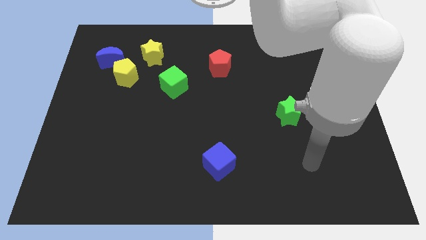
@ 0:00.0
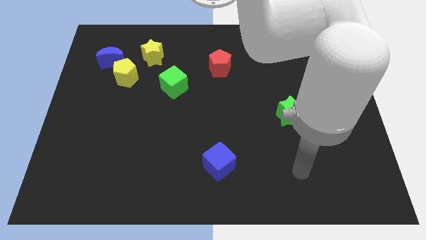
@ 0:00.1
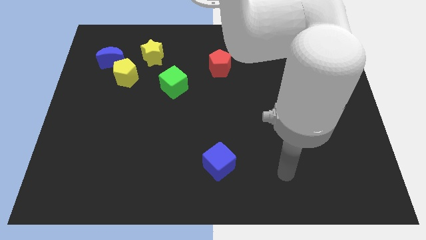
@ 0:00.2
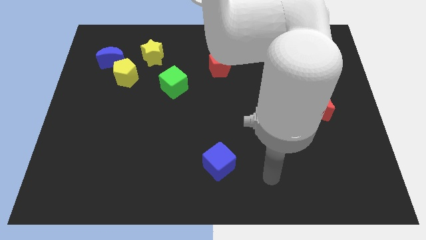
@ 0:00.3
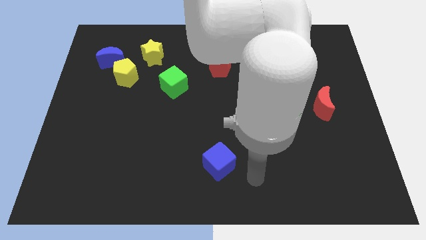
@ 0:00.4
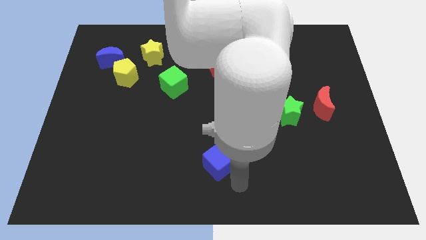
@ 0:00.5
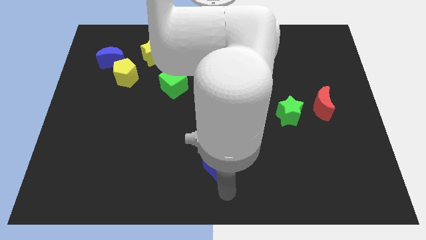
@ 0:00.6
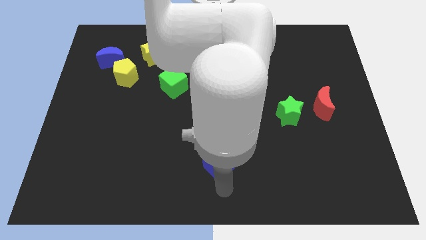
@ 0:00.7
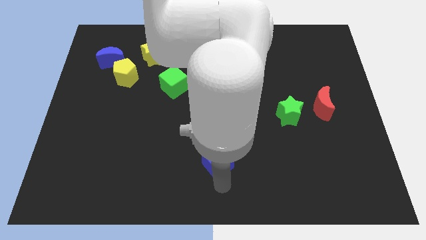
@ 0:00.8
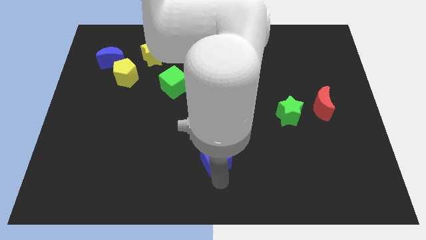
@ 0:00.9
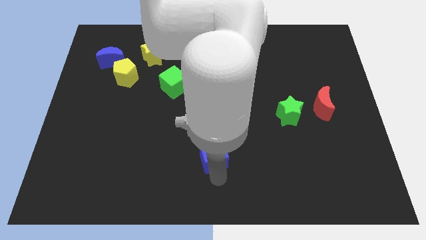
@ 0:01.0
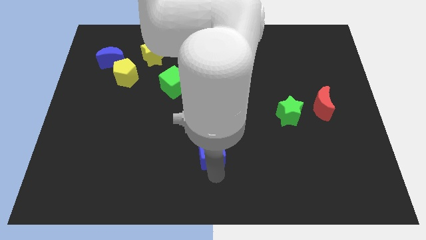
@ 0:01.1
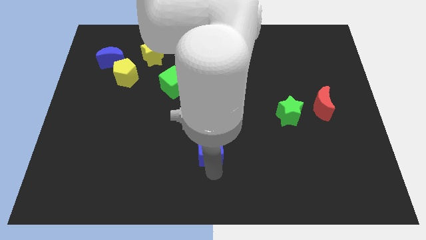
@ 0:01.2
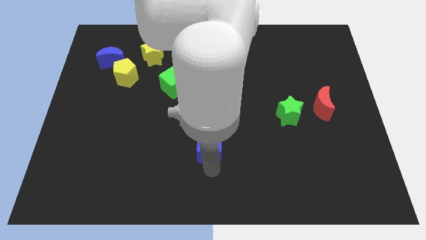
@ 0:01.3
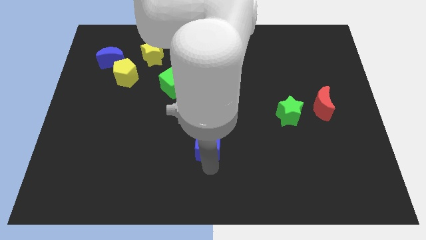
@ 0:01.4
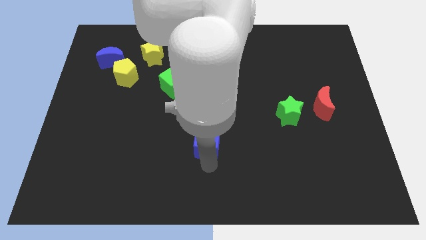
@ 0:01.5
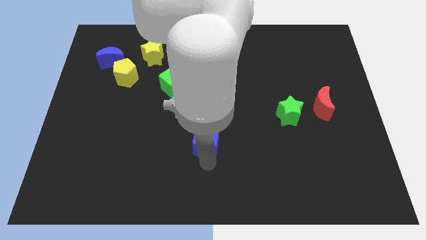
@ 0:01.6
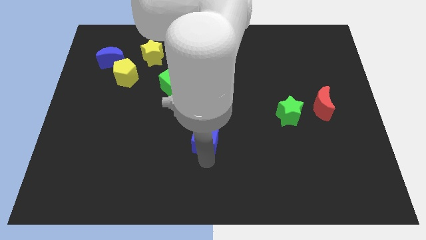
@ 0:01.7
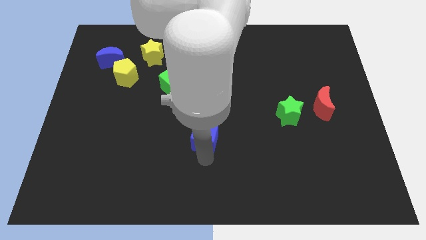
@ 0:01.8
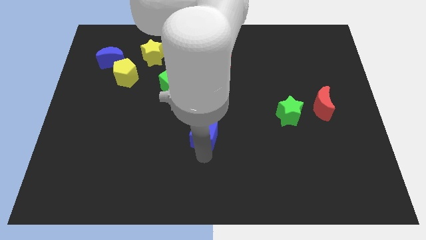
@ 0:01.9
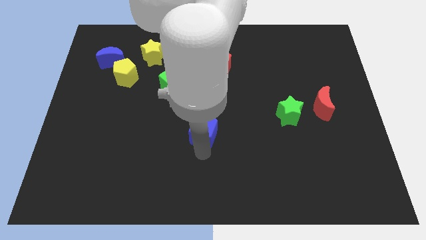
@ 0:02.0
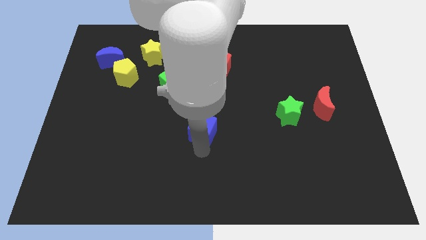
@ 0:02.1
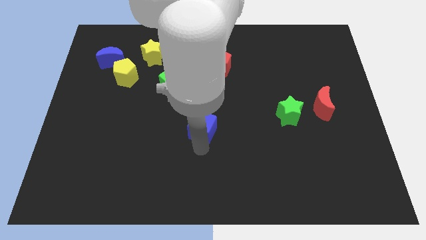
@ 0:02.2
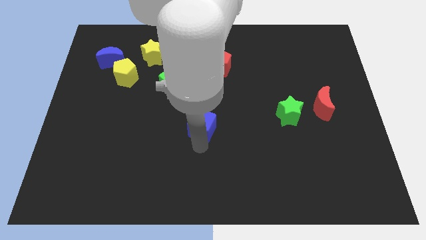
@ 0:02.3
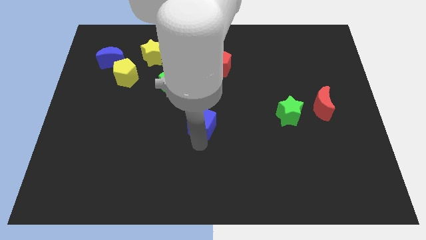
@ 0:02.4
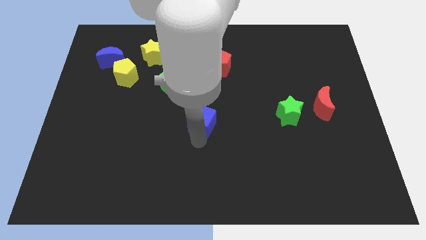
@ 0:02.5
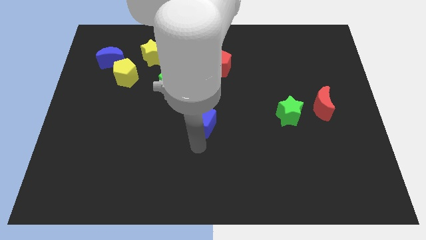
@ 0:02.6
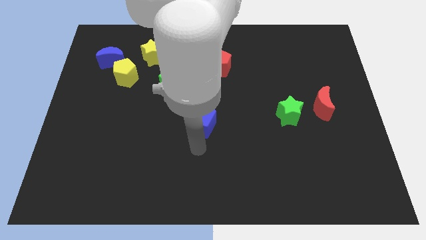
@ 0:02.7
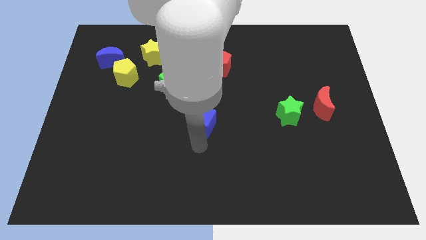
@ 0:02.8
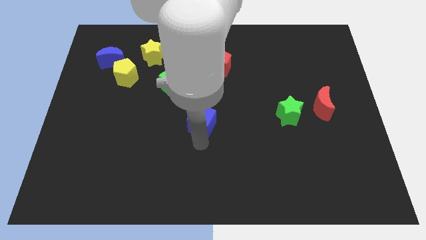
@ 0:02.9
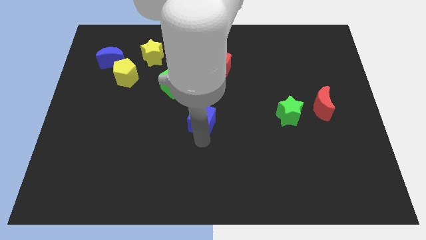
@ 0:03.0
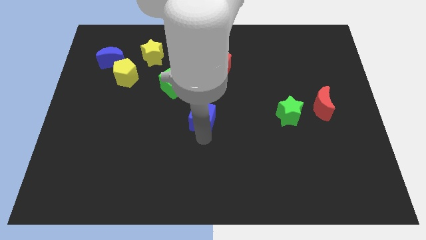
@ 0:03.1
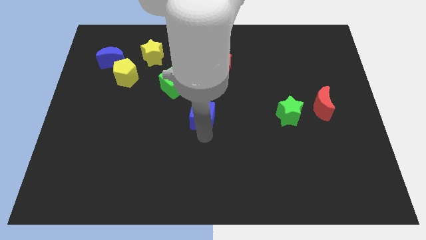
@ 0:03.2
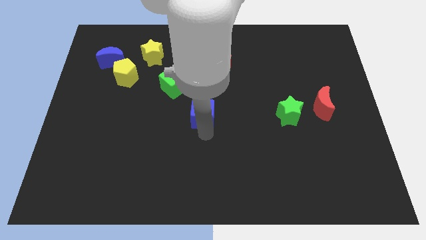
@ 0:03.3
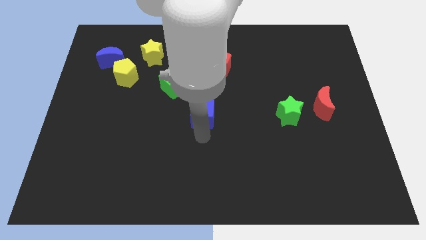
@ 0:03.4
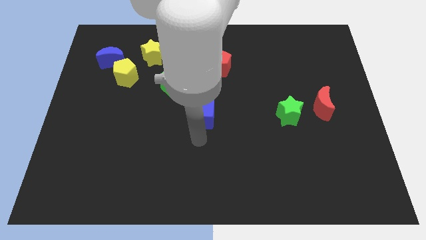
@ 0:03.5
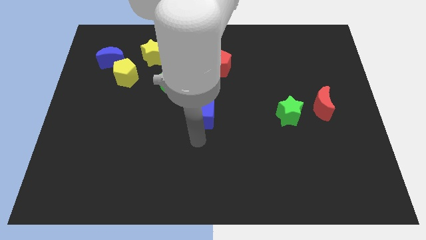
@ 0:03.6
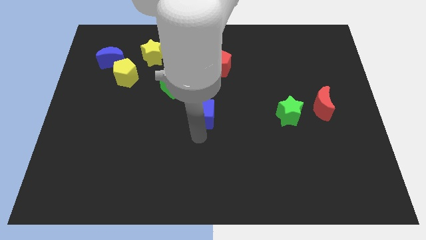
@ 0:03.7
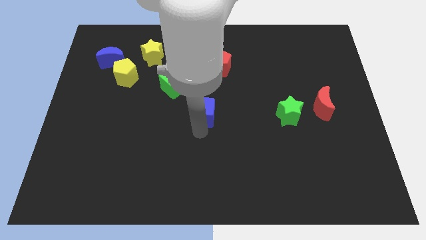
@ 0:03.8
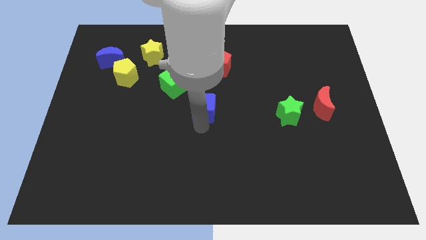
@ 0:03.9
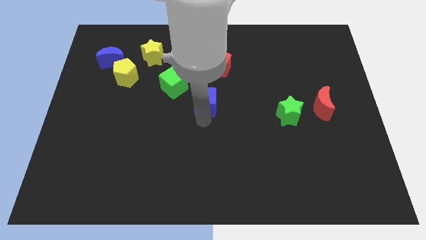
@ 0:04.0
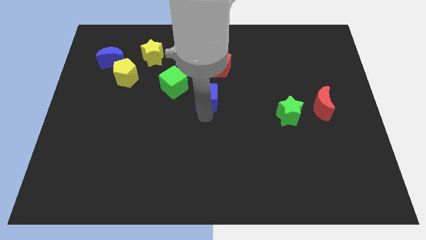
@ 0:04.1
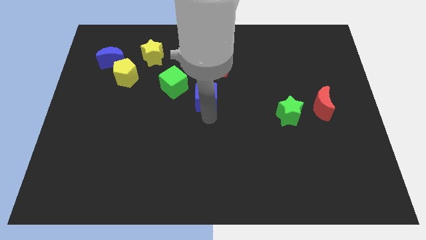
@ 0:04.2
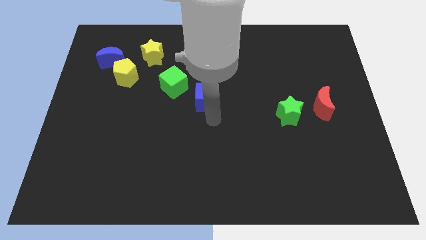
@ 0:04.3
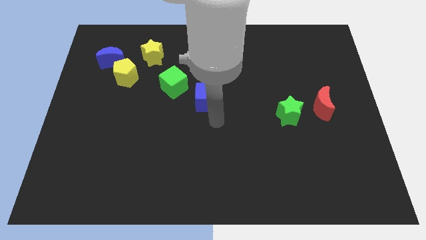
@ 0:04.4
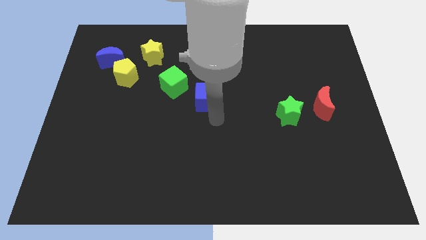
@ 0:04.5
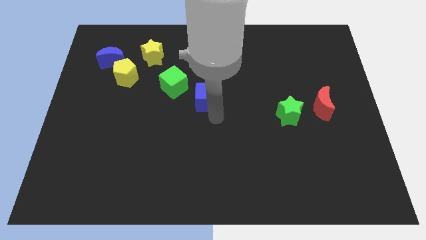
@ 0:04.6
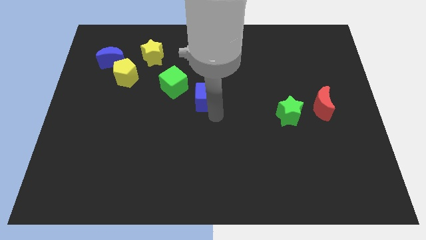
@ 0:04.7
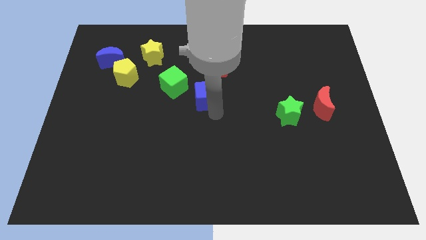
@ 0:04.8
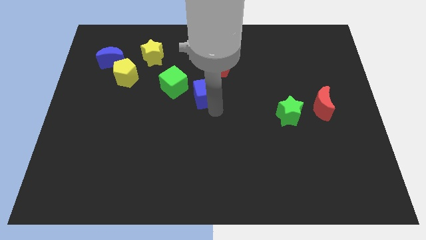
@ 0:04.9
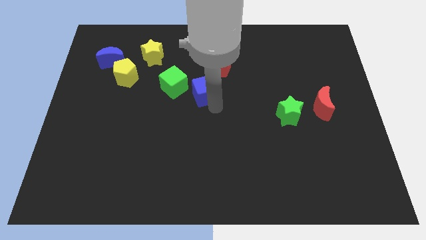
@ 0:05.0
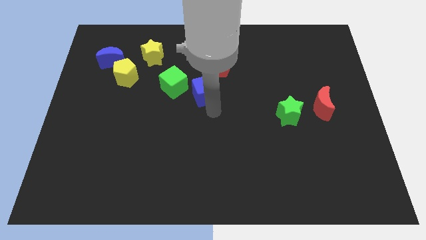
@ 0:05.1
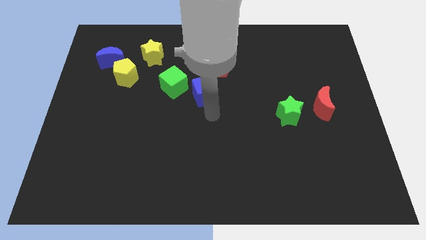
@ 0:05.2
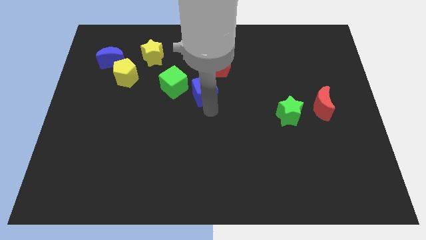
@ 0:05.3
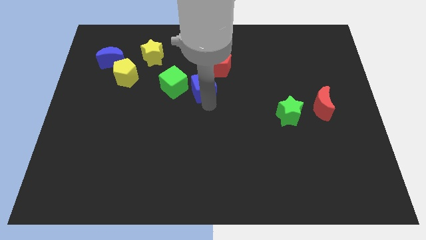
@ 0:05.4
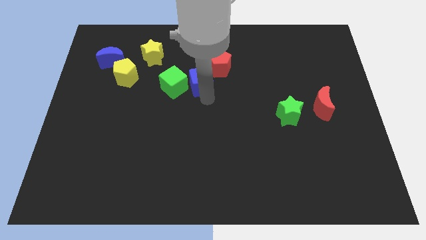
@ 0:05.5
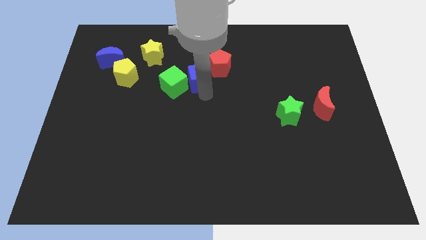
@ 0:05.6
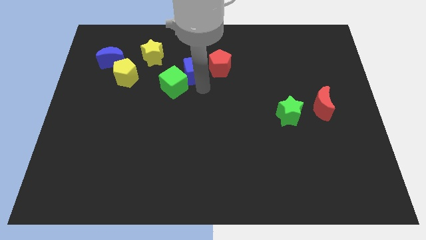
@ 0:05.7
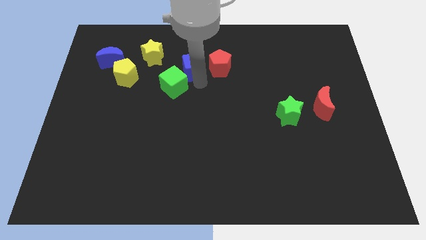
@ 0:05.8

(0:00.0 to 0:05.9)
push the blue cube right of the yellow star

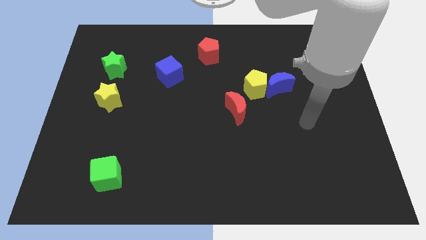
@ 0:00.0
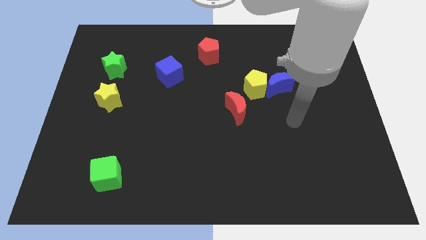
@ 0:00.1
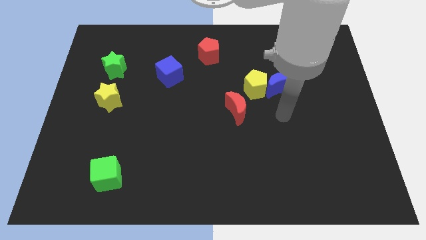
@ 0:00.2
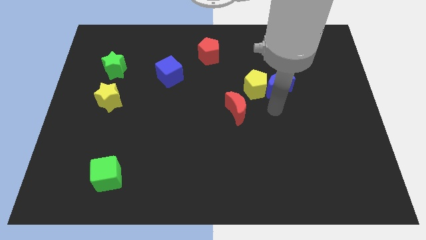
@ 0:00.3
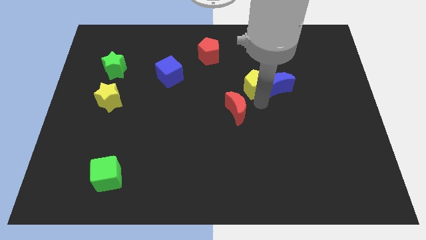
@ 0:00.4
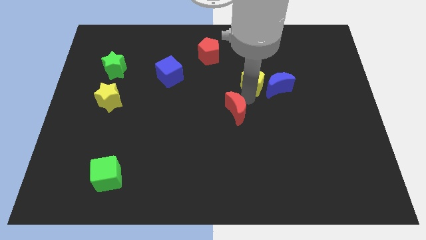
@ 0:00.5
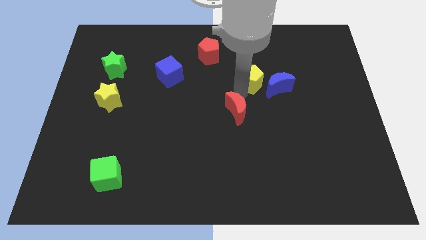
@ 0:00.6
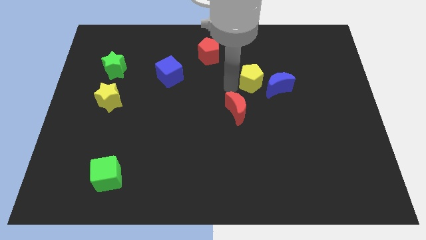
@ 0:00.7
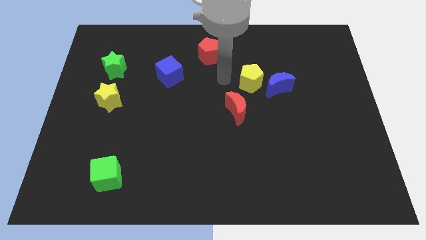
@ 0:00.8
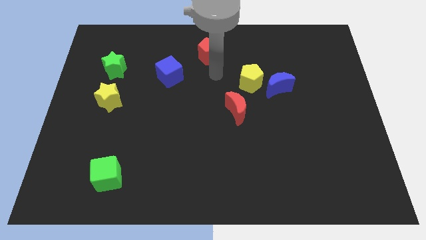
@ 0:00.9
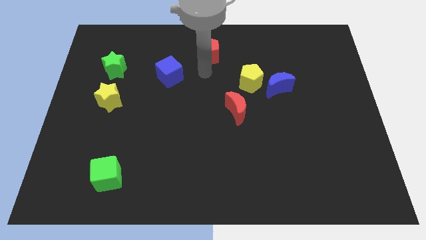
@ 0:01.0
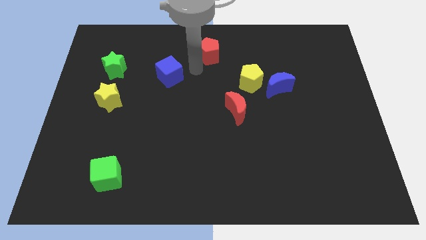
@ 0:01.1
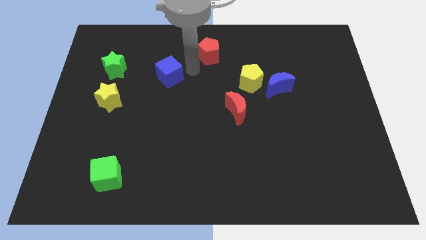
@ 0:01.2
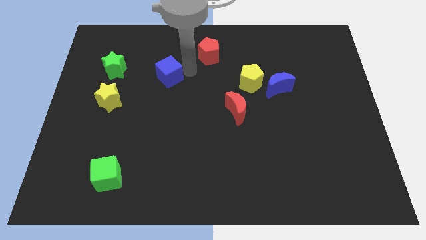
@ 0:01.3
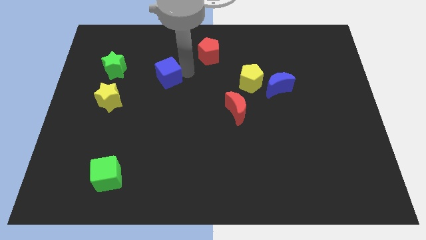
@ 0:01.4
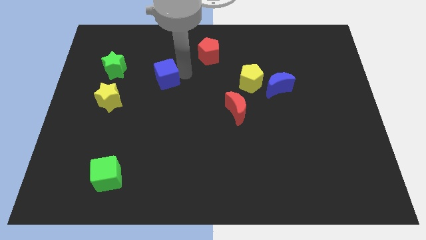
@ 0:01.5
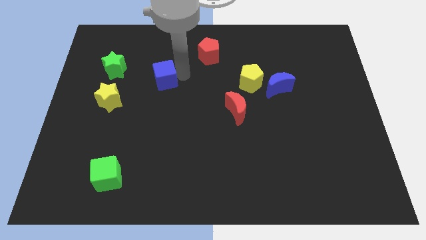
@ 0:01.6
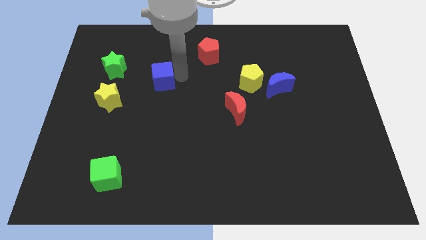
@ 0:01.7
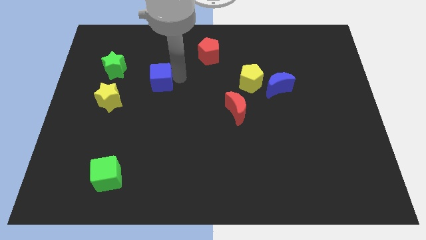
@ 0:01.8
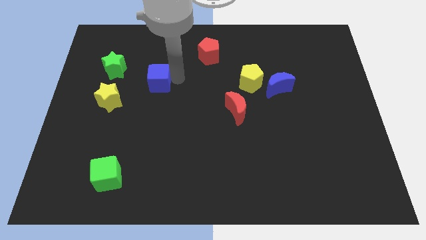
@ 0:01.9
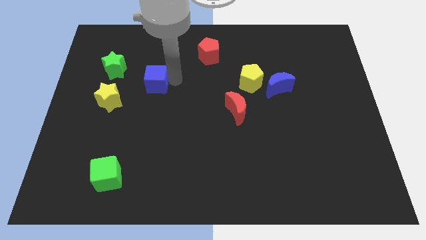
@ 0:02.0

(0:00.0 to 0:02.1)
push the blue cube to the top right of the yellow star
